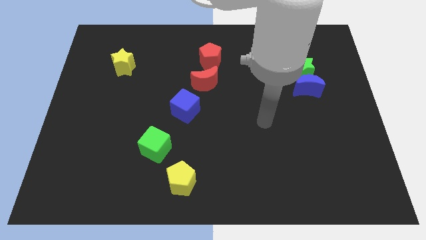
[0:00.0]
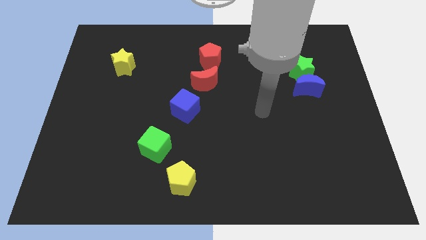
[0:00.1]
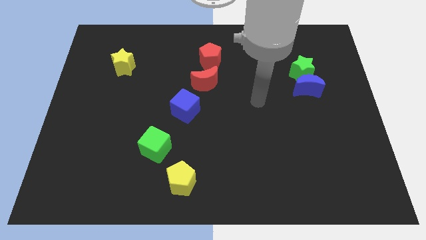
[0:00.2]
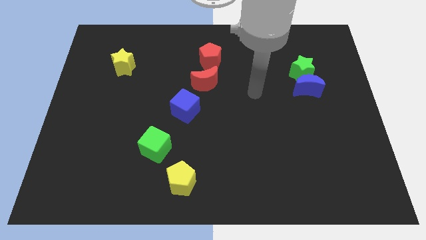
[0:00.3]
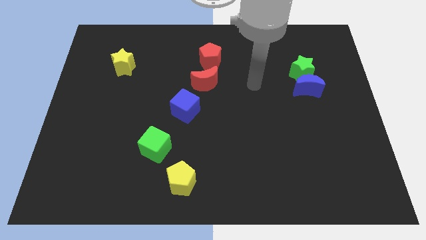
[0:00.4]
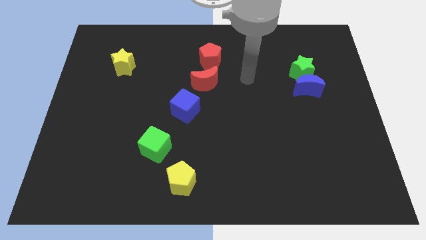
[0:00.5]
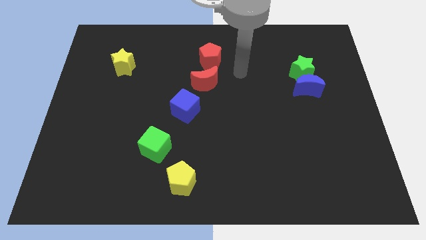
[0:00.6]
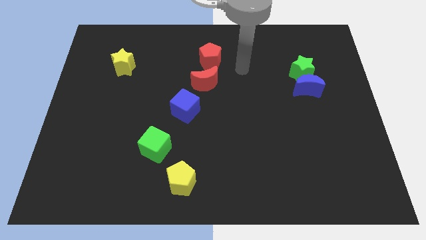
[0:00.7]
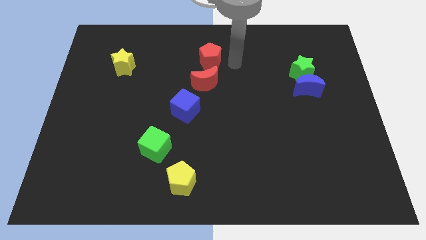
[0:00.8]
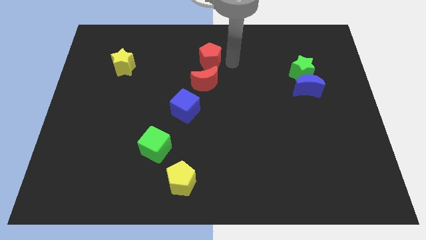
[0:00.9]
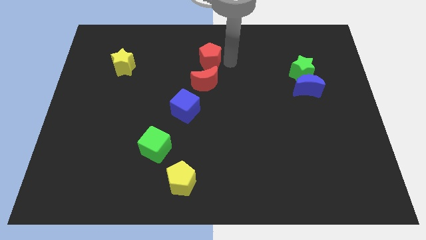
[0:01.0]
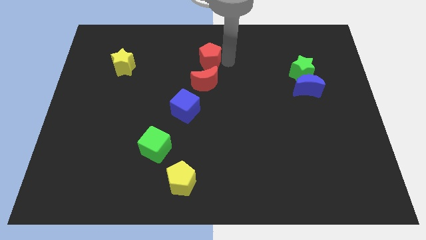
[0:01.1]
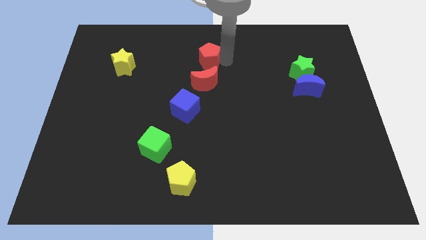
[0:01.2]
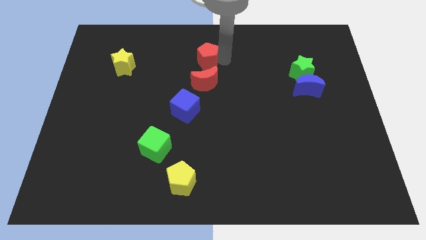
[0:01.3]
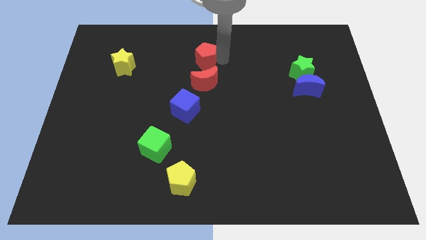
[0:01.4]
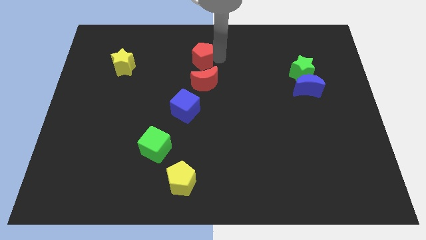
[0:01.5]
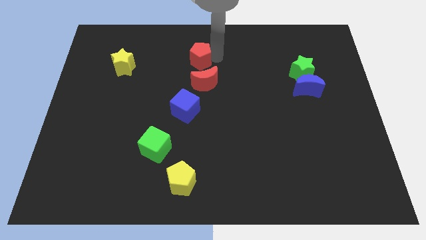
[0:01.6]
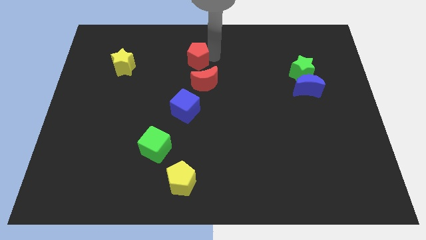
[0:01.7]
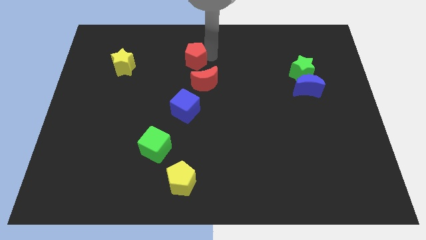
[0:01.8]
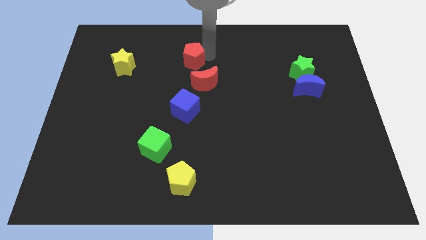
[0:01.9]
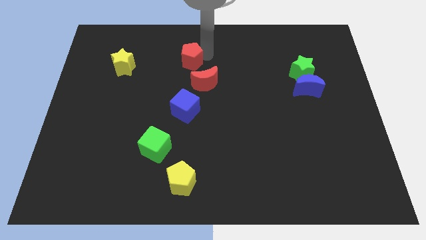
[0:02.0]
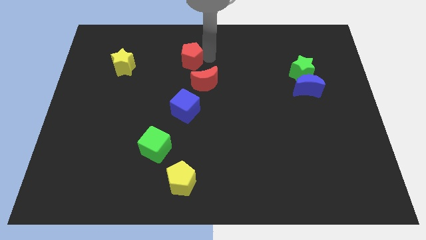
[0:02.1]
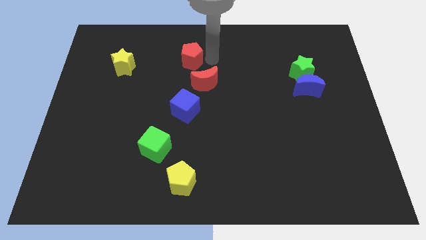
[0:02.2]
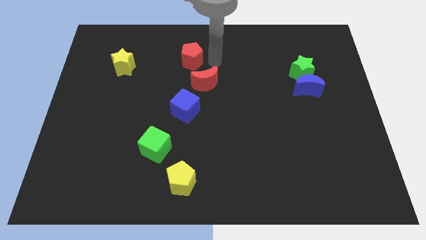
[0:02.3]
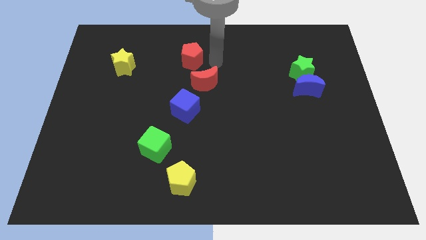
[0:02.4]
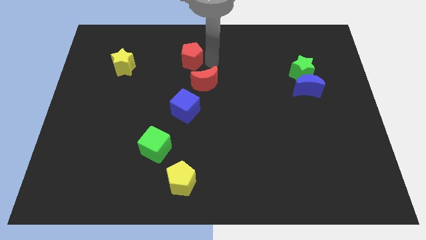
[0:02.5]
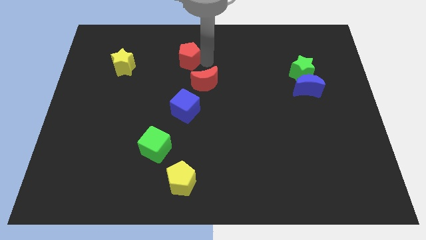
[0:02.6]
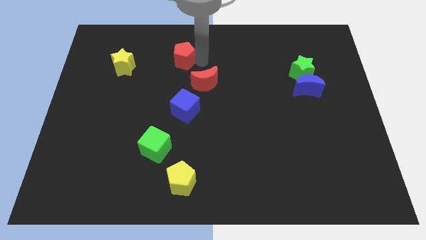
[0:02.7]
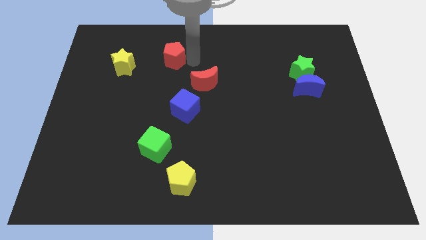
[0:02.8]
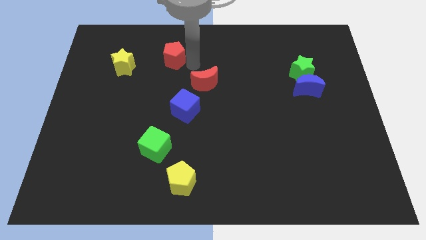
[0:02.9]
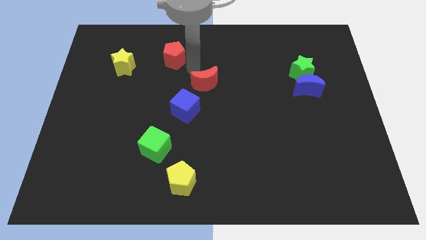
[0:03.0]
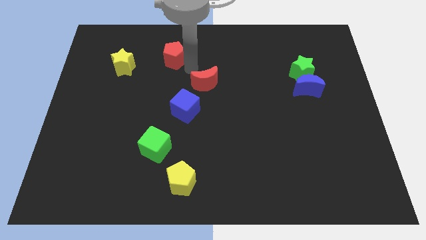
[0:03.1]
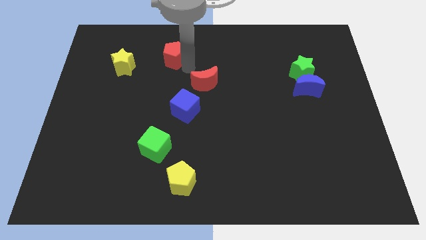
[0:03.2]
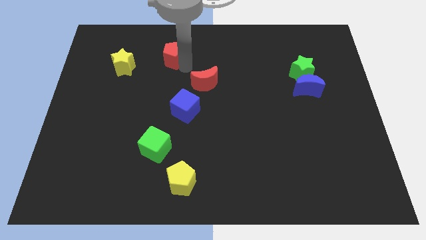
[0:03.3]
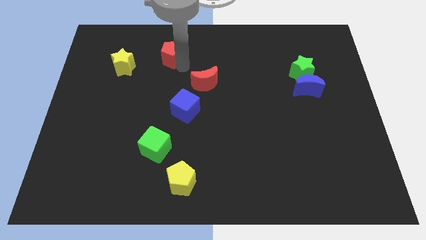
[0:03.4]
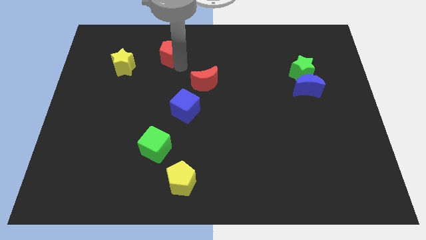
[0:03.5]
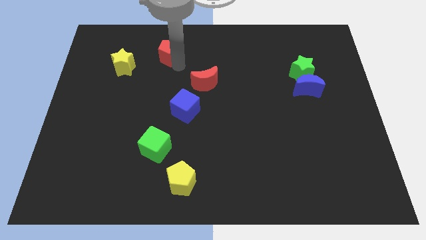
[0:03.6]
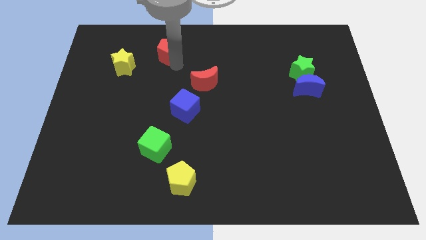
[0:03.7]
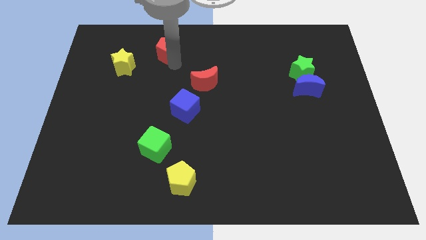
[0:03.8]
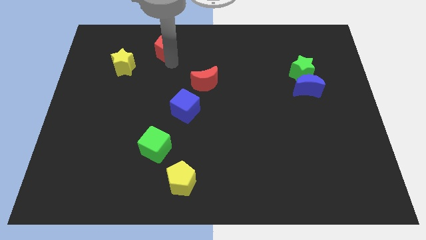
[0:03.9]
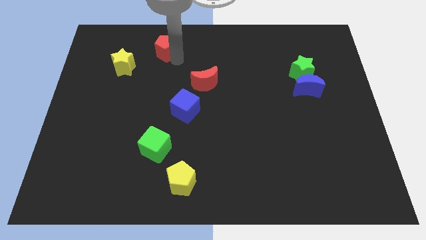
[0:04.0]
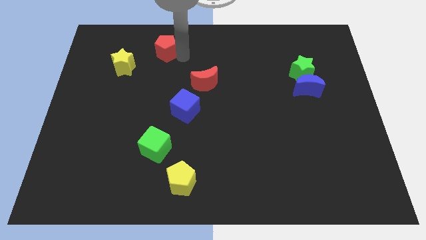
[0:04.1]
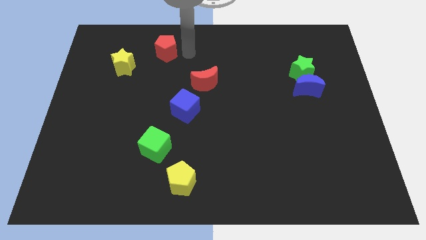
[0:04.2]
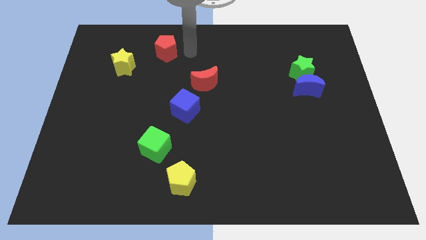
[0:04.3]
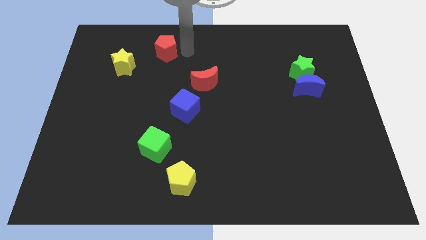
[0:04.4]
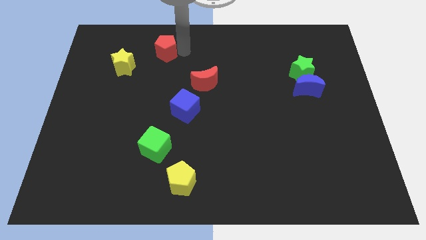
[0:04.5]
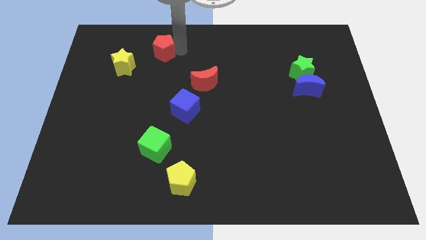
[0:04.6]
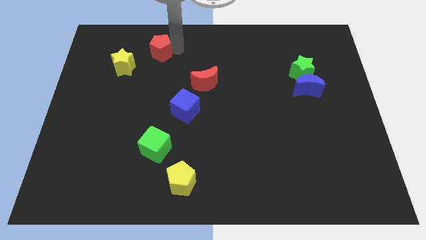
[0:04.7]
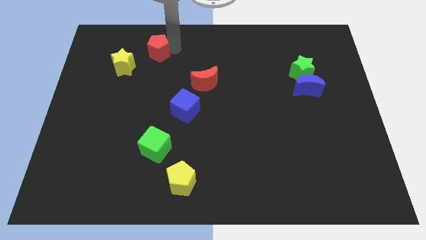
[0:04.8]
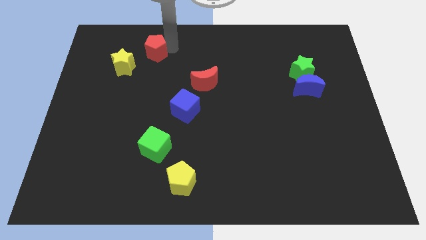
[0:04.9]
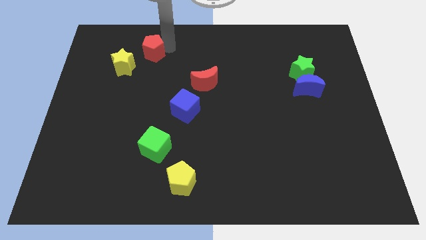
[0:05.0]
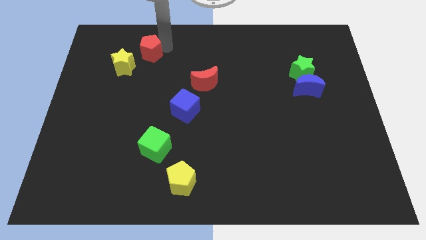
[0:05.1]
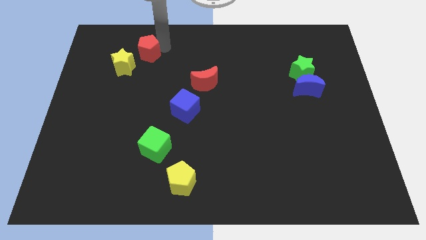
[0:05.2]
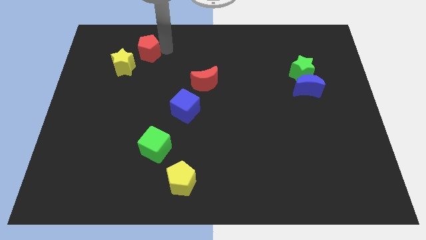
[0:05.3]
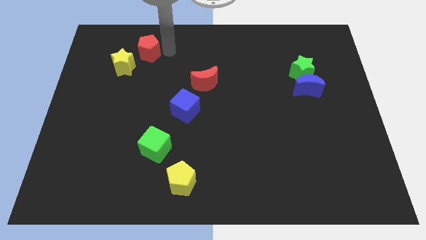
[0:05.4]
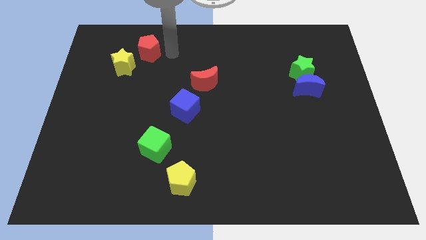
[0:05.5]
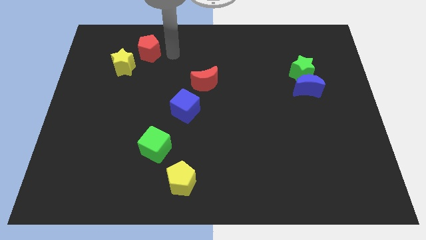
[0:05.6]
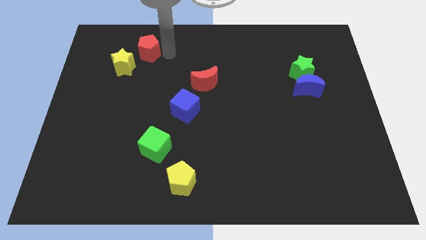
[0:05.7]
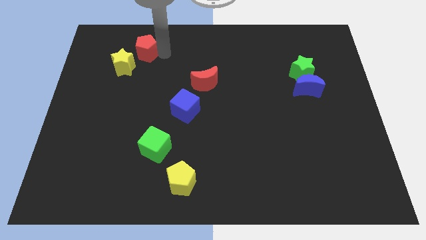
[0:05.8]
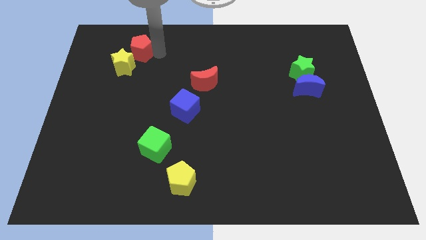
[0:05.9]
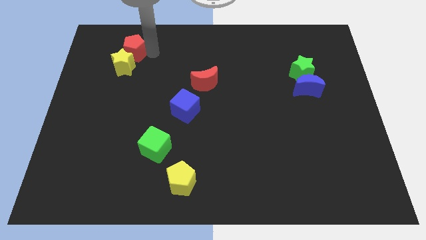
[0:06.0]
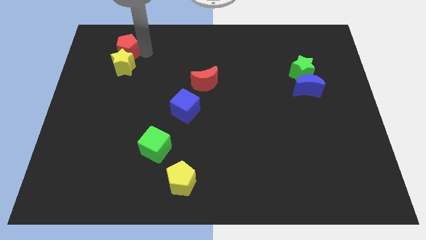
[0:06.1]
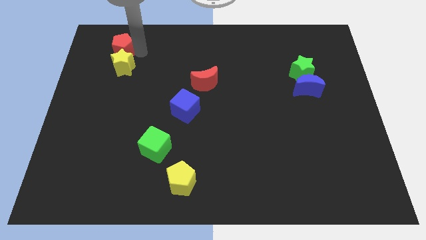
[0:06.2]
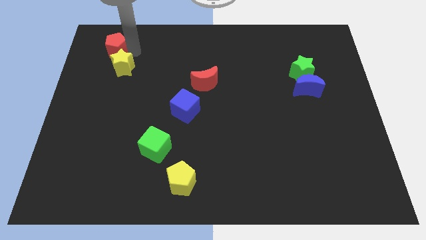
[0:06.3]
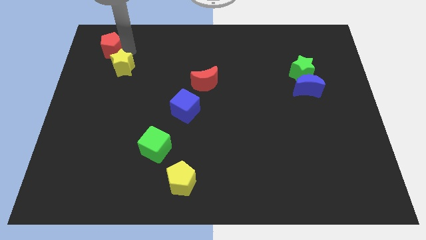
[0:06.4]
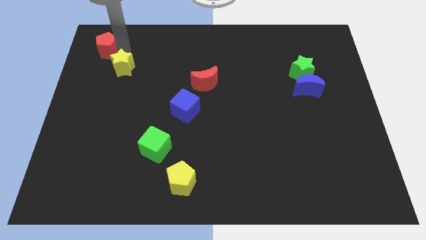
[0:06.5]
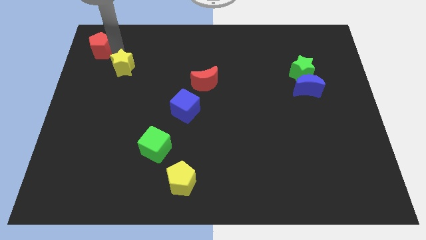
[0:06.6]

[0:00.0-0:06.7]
put the red pentagon to the top left corner
